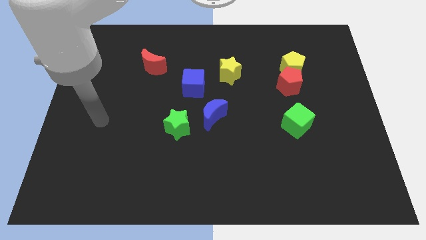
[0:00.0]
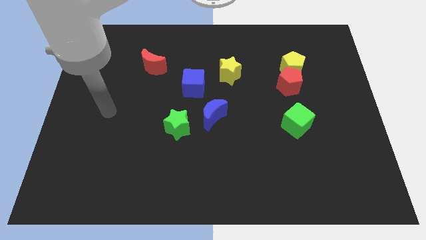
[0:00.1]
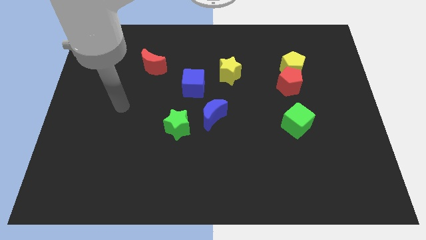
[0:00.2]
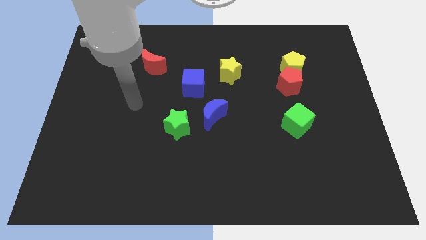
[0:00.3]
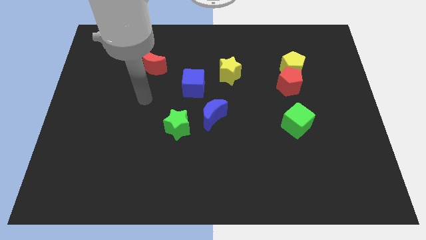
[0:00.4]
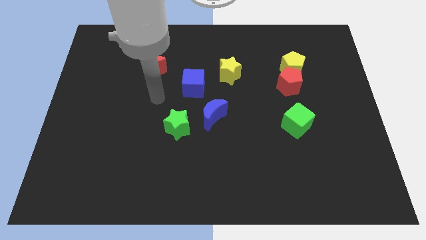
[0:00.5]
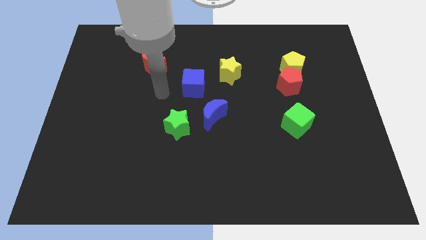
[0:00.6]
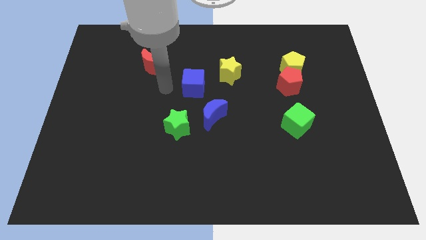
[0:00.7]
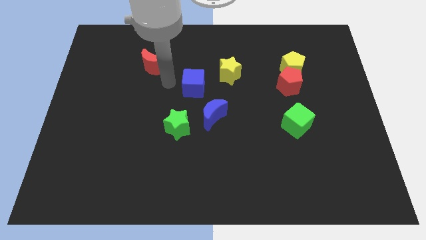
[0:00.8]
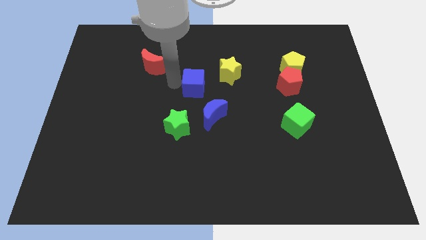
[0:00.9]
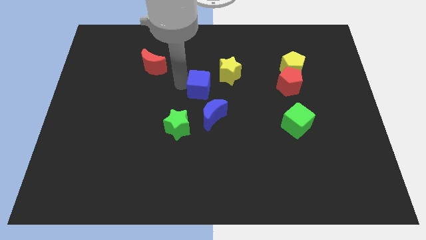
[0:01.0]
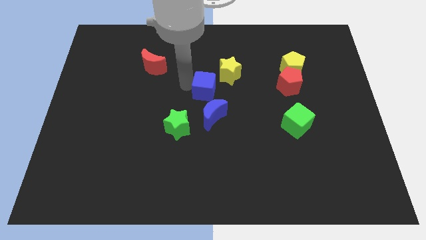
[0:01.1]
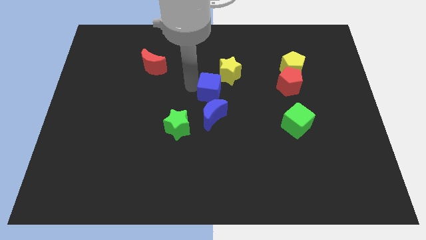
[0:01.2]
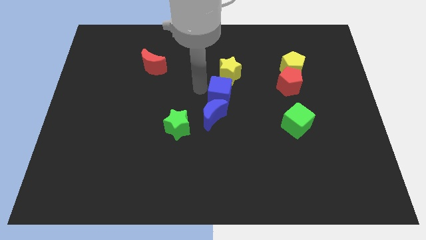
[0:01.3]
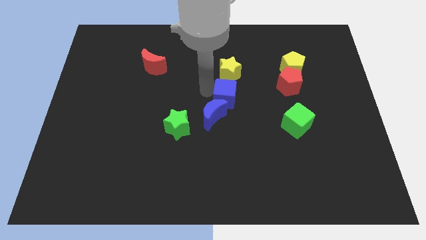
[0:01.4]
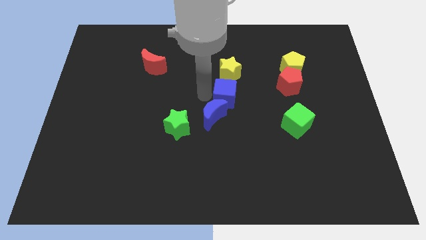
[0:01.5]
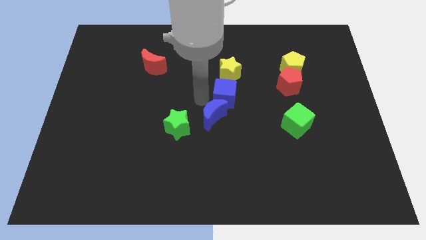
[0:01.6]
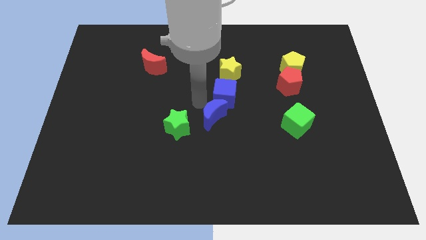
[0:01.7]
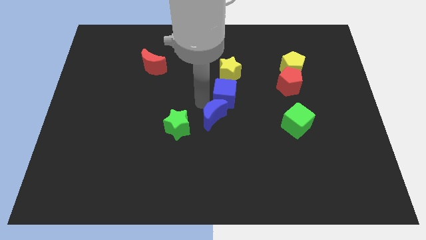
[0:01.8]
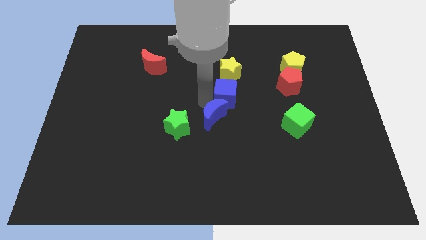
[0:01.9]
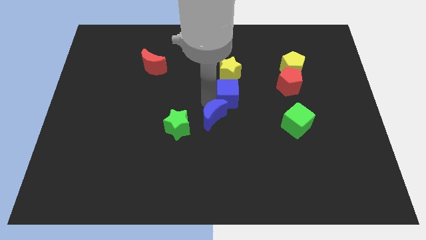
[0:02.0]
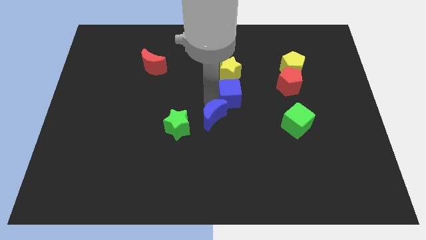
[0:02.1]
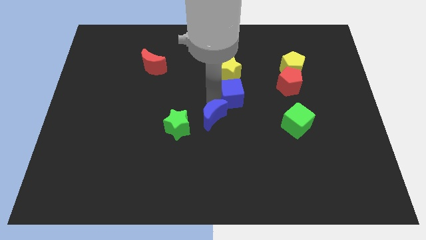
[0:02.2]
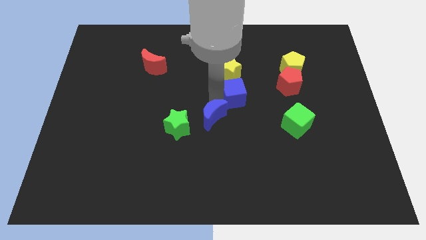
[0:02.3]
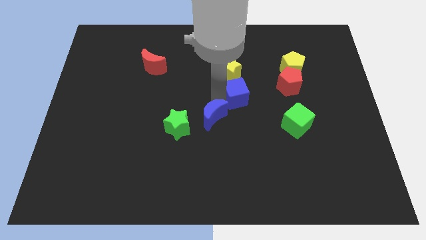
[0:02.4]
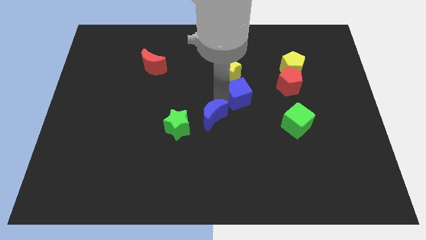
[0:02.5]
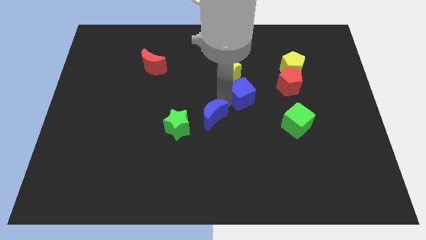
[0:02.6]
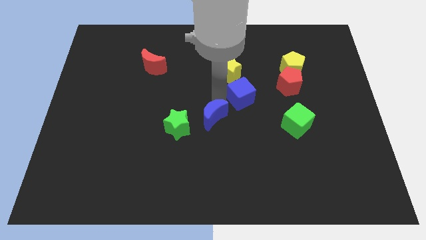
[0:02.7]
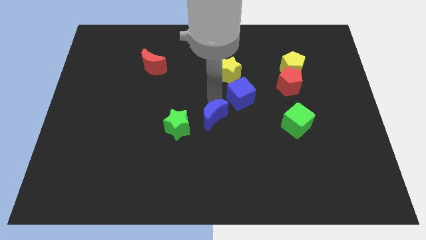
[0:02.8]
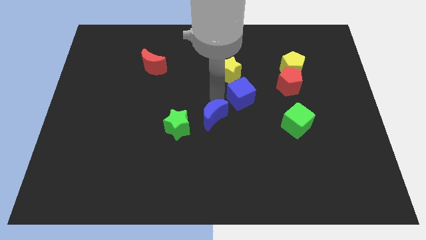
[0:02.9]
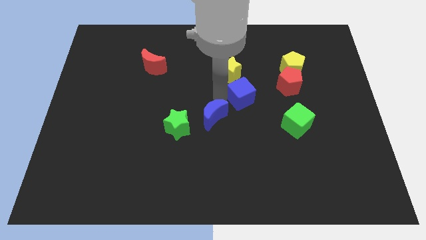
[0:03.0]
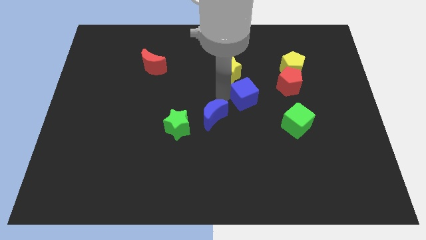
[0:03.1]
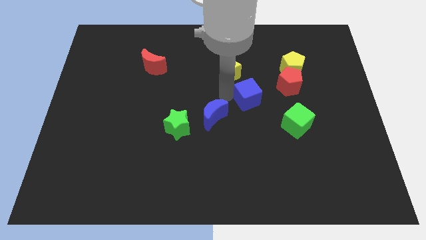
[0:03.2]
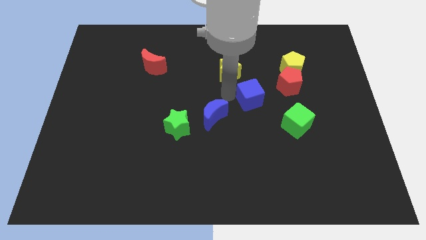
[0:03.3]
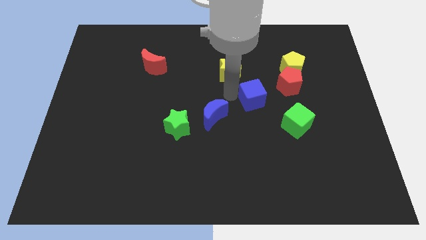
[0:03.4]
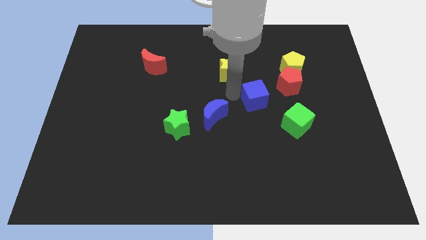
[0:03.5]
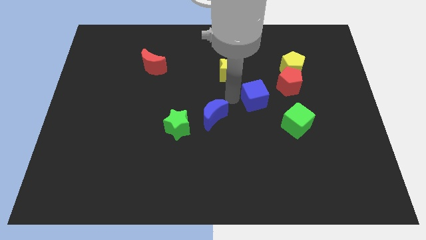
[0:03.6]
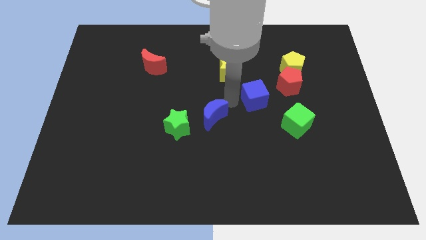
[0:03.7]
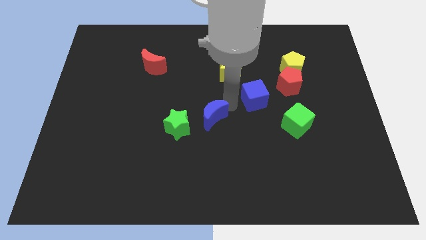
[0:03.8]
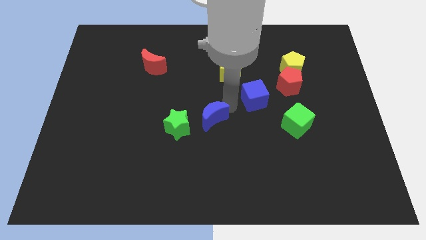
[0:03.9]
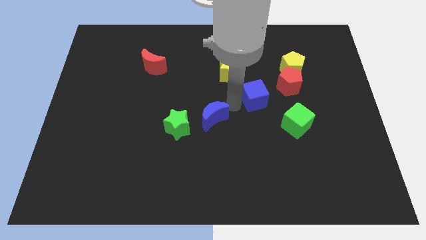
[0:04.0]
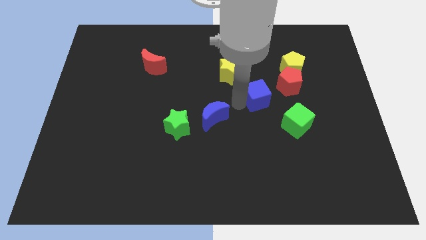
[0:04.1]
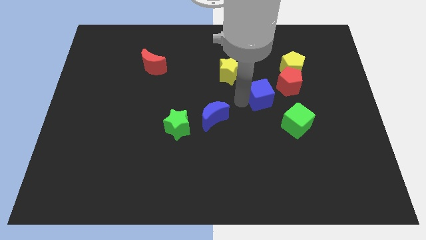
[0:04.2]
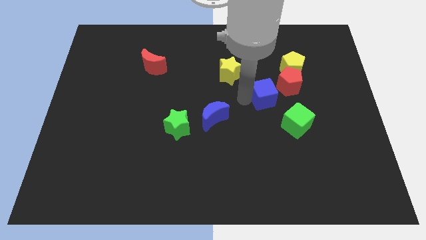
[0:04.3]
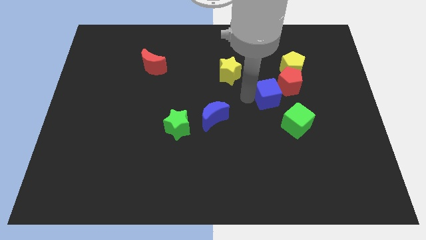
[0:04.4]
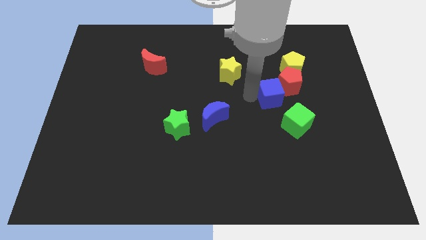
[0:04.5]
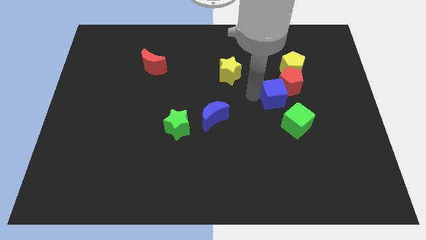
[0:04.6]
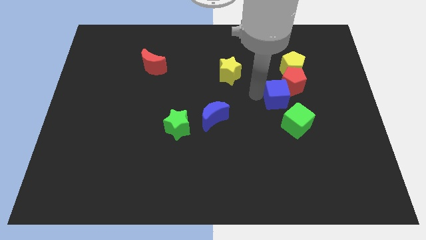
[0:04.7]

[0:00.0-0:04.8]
put the blue cube to the bottom of the yellow pentagon

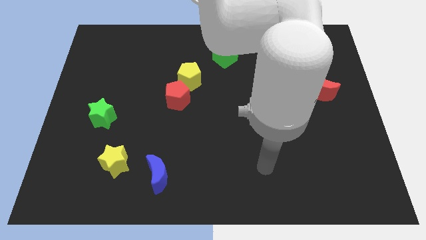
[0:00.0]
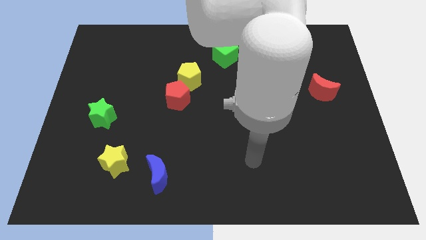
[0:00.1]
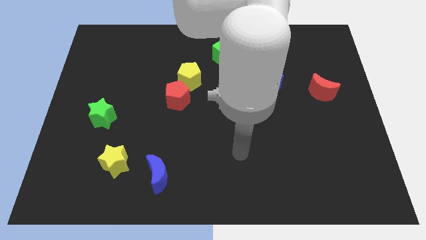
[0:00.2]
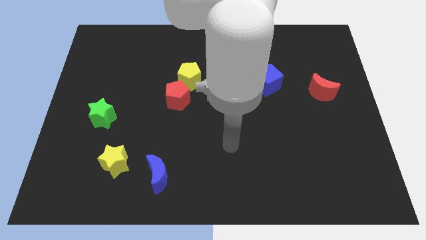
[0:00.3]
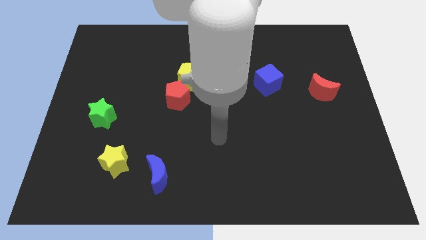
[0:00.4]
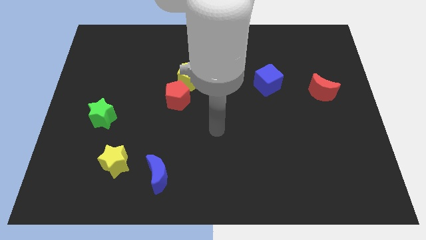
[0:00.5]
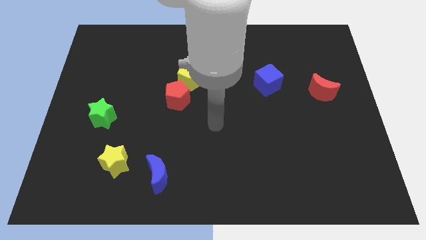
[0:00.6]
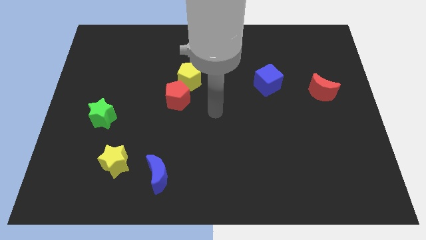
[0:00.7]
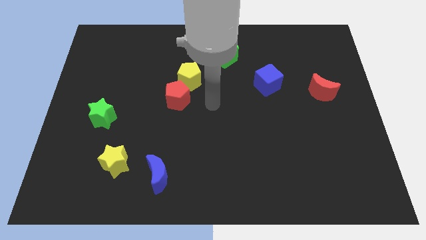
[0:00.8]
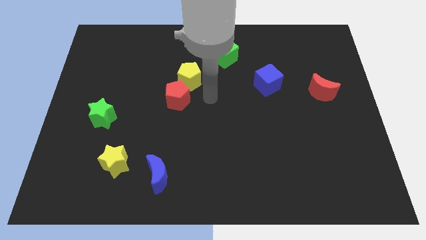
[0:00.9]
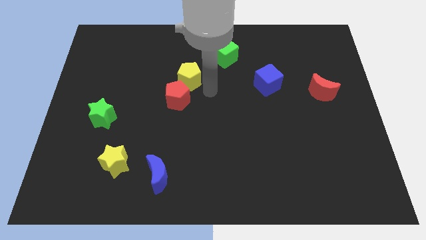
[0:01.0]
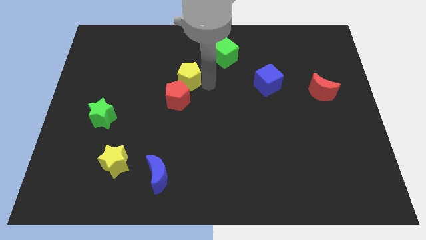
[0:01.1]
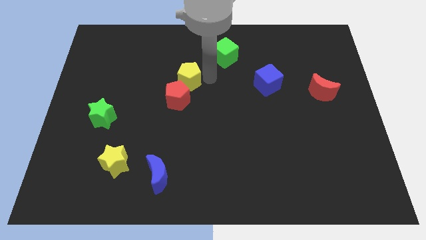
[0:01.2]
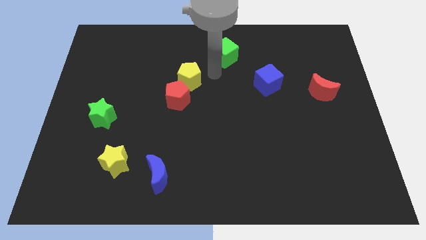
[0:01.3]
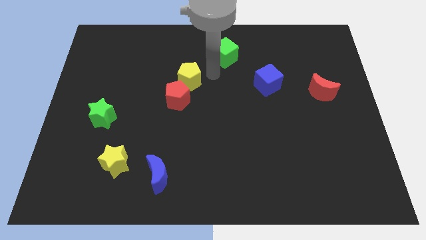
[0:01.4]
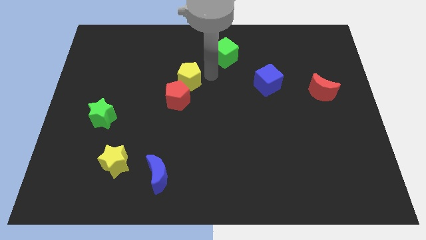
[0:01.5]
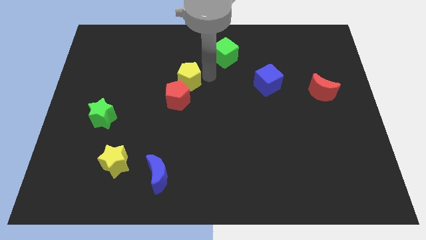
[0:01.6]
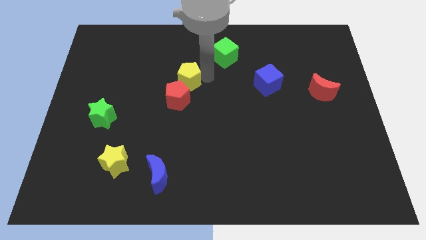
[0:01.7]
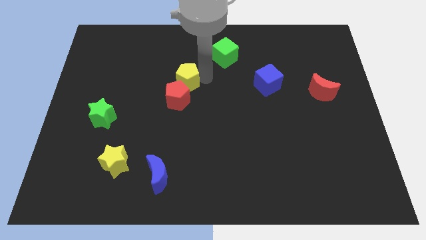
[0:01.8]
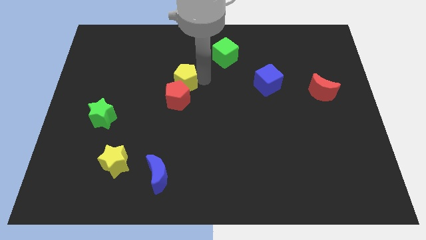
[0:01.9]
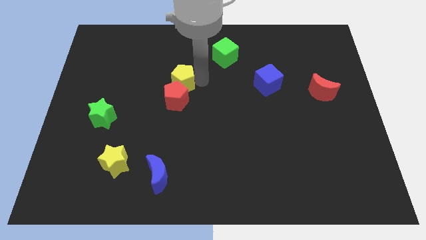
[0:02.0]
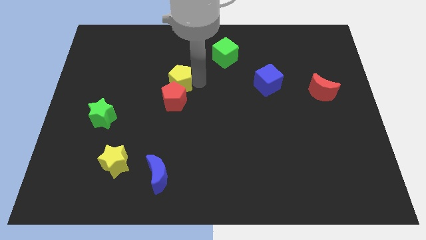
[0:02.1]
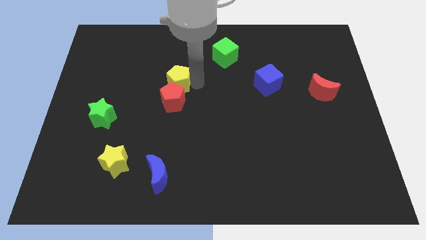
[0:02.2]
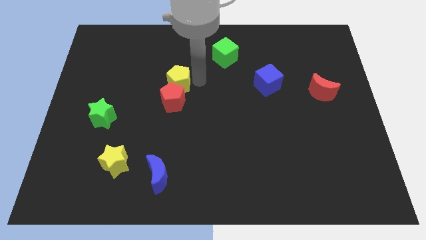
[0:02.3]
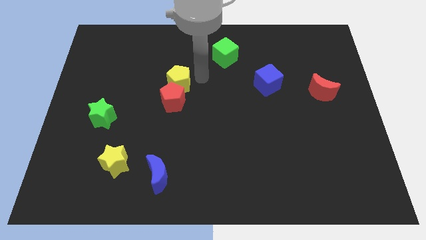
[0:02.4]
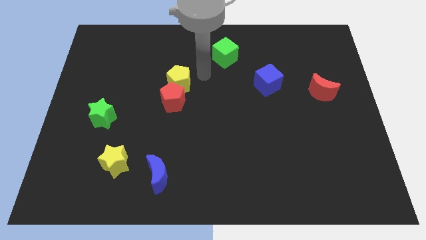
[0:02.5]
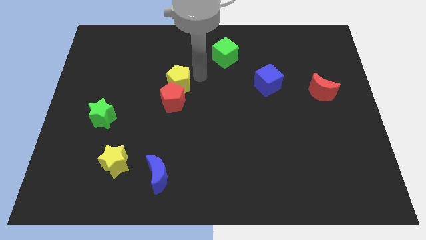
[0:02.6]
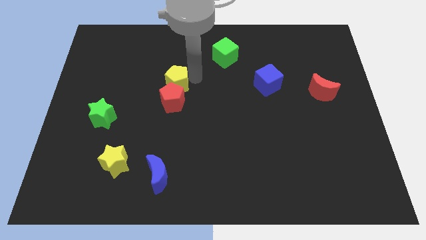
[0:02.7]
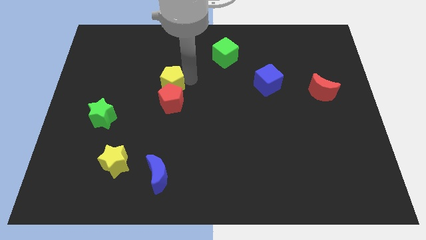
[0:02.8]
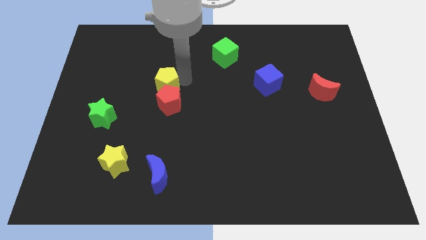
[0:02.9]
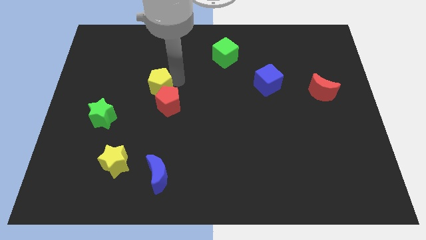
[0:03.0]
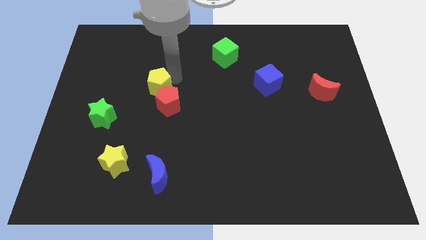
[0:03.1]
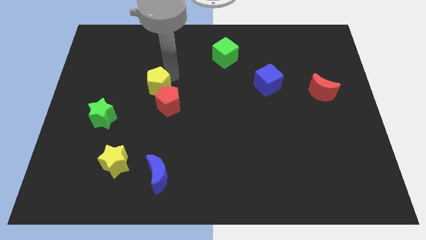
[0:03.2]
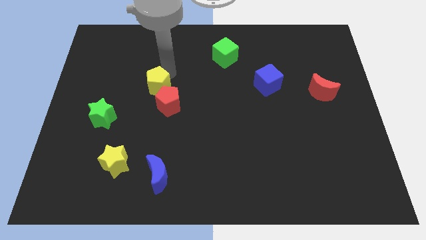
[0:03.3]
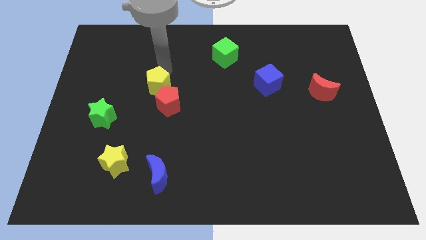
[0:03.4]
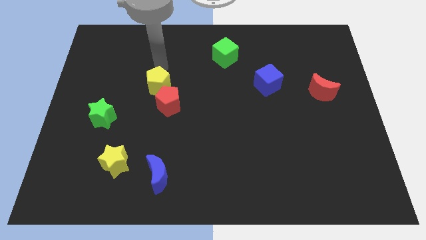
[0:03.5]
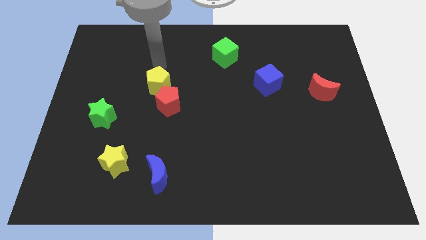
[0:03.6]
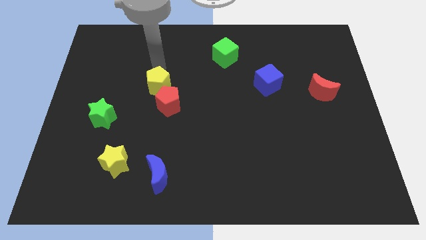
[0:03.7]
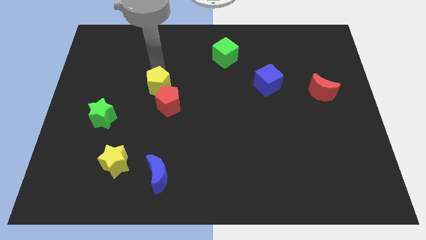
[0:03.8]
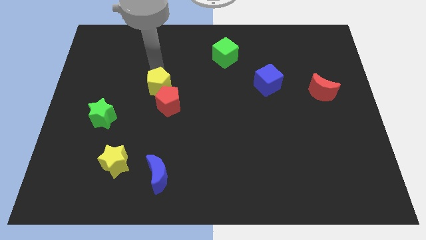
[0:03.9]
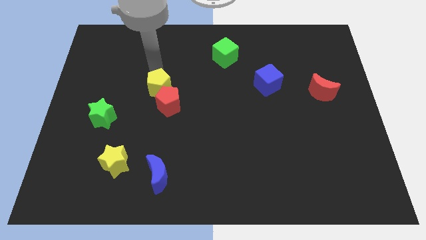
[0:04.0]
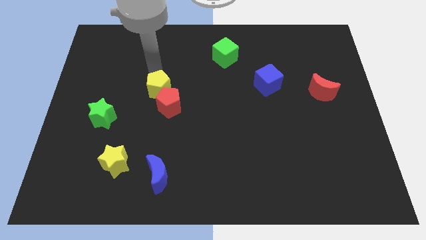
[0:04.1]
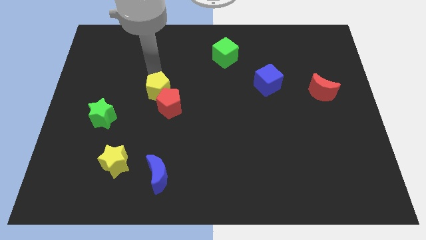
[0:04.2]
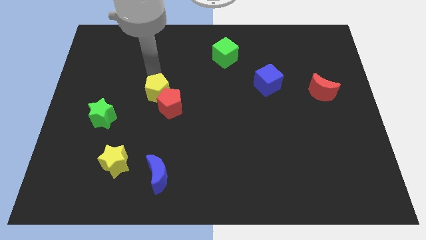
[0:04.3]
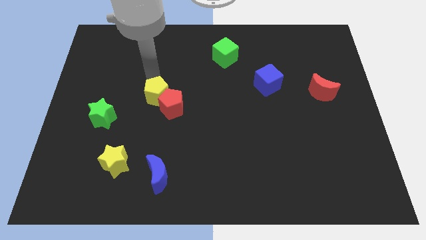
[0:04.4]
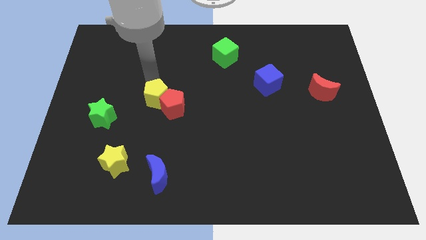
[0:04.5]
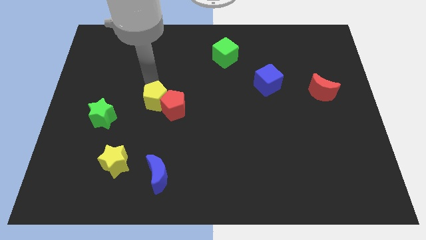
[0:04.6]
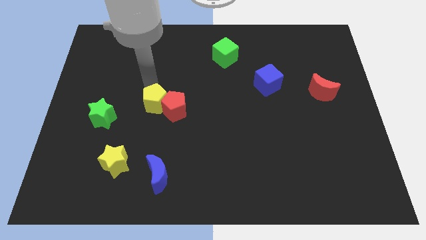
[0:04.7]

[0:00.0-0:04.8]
put the yellow pentagon to the right of the green star
